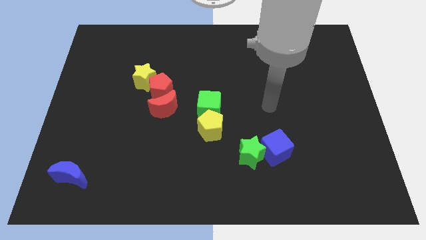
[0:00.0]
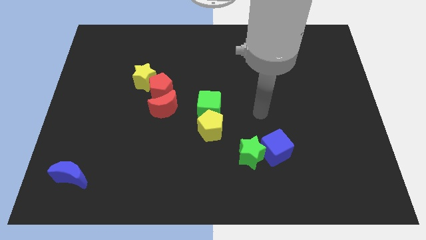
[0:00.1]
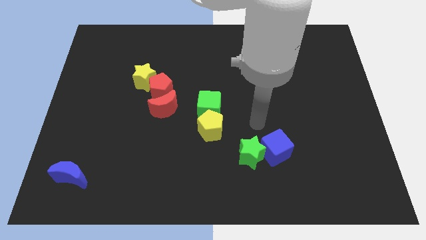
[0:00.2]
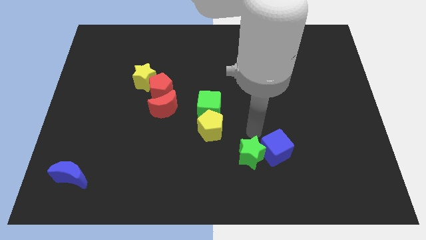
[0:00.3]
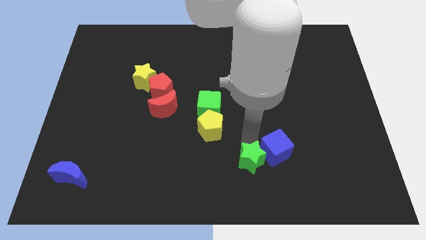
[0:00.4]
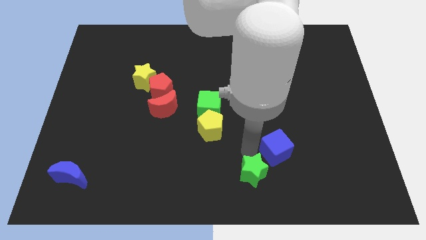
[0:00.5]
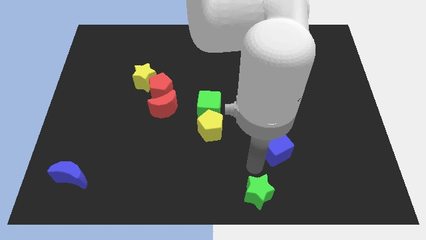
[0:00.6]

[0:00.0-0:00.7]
pull the blue cube apart from the green star

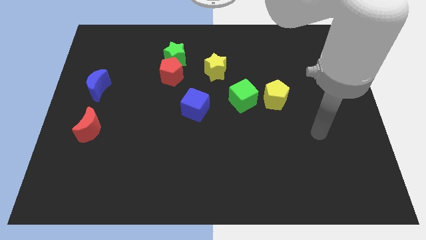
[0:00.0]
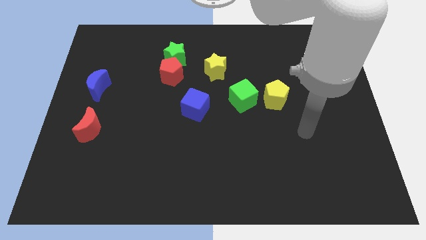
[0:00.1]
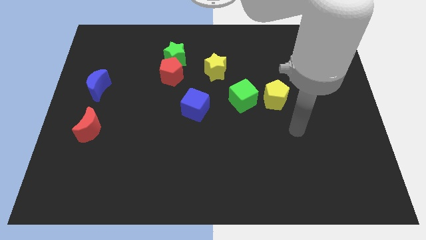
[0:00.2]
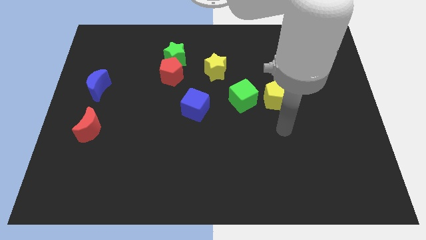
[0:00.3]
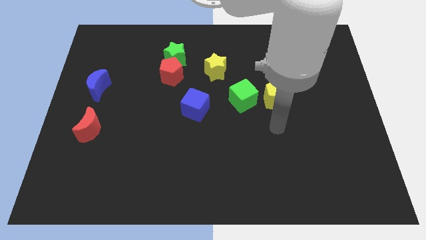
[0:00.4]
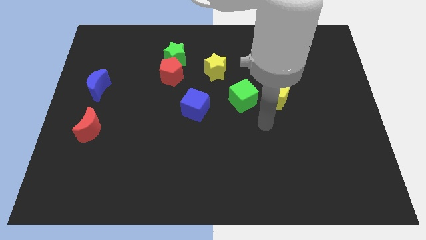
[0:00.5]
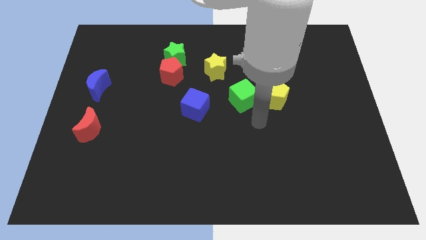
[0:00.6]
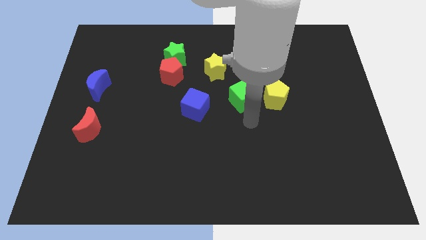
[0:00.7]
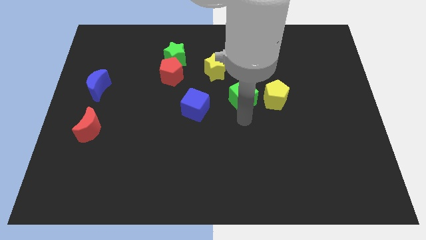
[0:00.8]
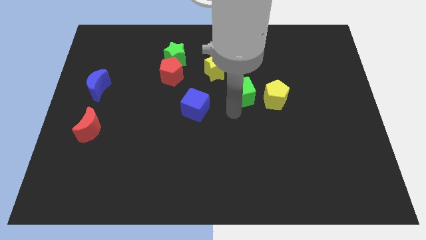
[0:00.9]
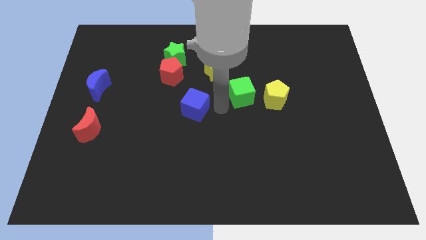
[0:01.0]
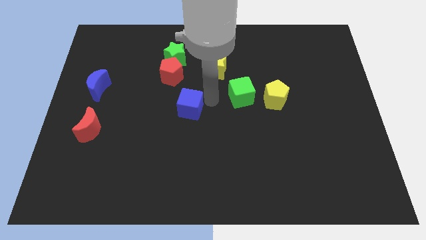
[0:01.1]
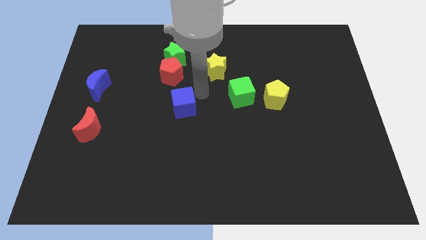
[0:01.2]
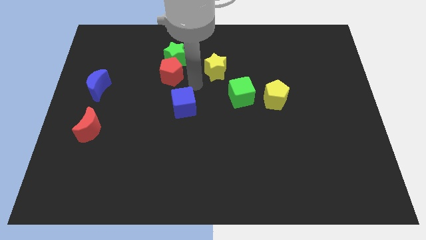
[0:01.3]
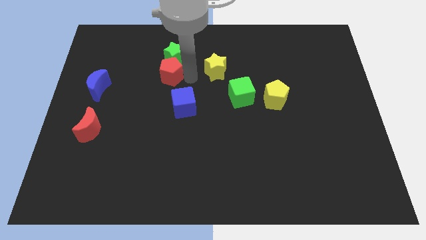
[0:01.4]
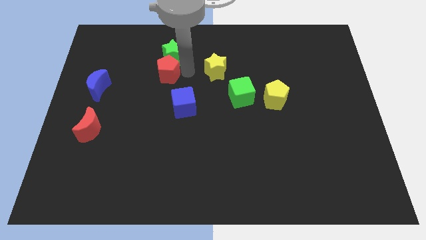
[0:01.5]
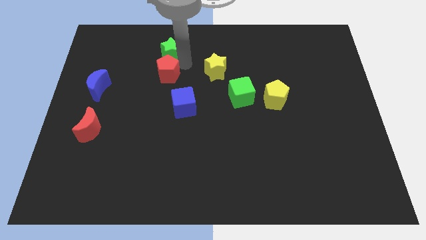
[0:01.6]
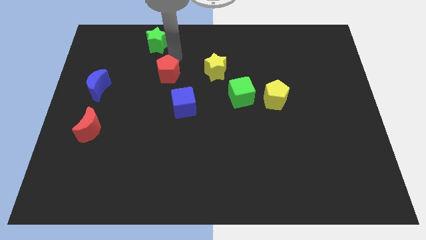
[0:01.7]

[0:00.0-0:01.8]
move the red pentagon away from the green star

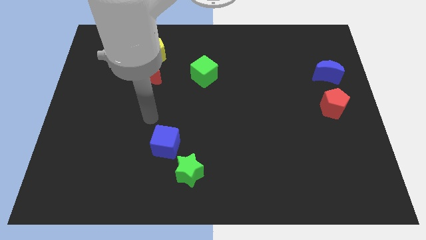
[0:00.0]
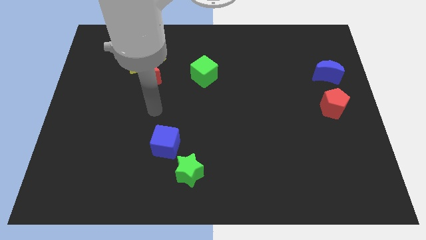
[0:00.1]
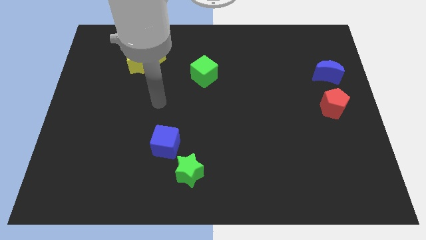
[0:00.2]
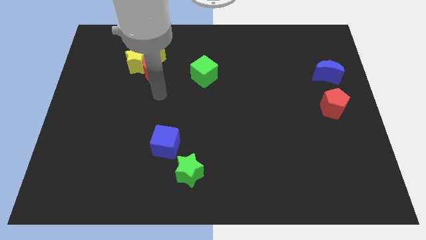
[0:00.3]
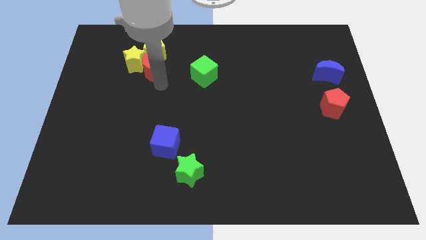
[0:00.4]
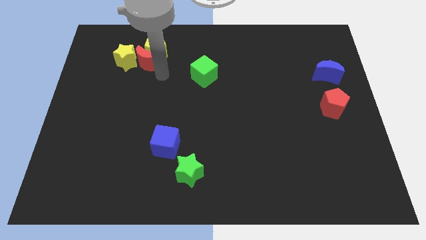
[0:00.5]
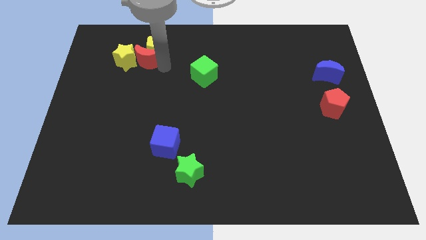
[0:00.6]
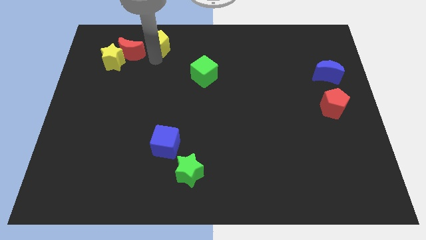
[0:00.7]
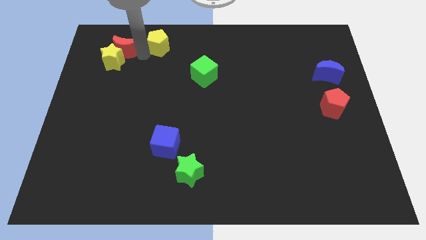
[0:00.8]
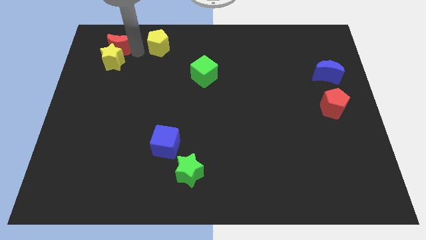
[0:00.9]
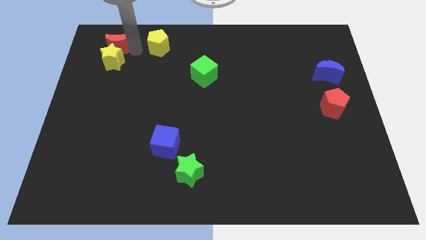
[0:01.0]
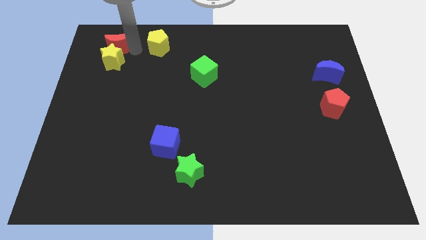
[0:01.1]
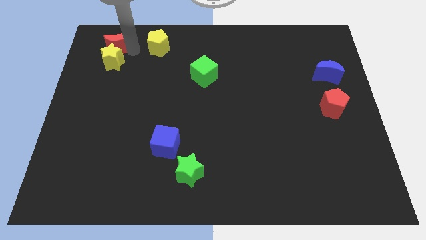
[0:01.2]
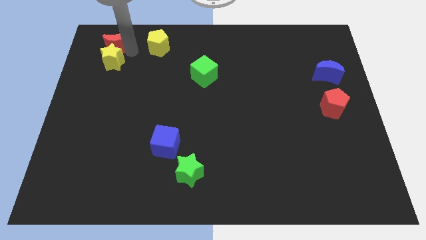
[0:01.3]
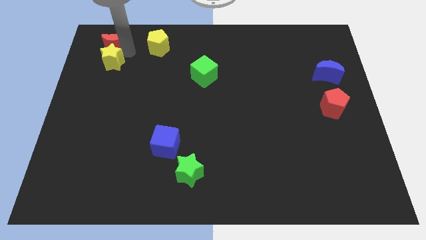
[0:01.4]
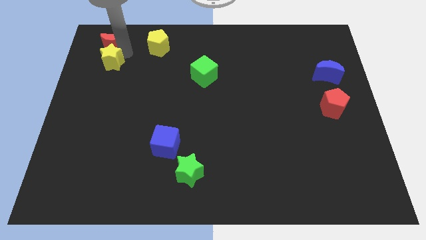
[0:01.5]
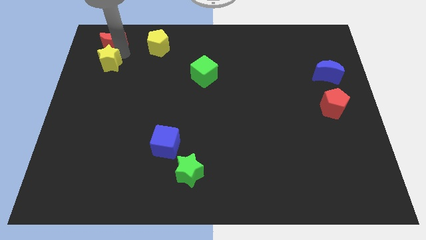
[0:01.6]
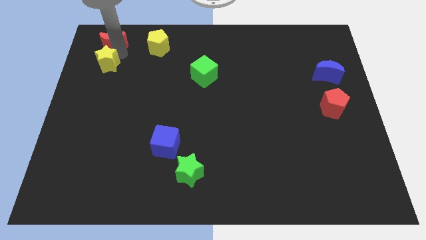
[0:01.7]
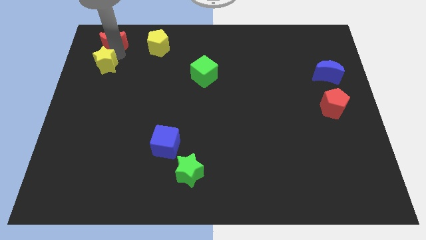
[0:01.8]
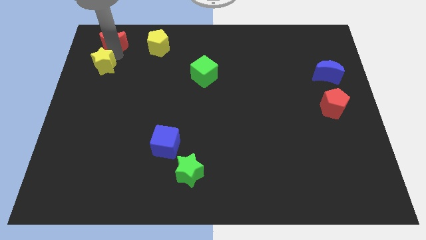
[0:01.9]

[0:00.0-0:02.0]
separate the yellow star from the red moon and yellow pentagon

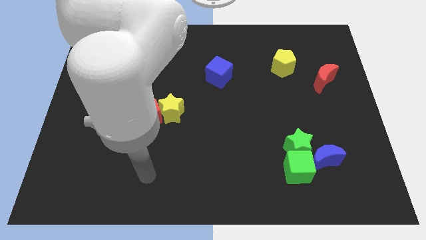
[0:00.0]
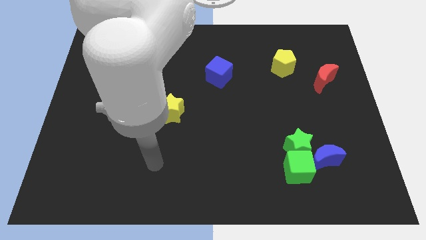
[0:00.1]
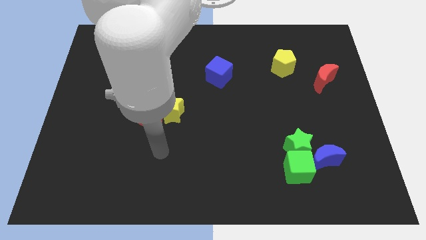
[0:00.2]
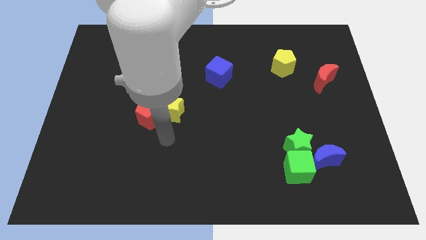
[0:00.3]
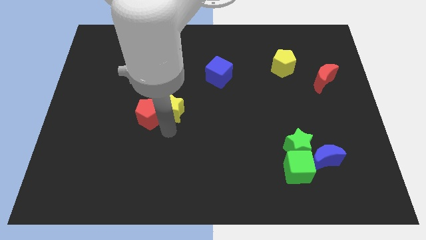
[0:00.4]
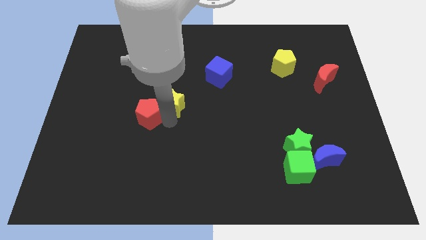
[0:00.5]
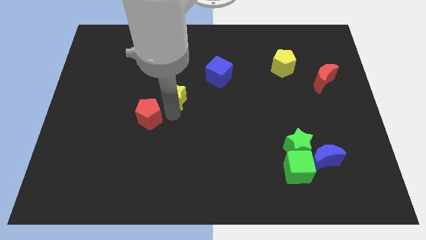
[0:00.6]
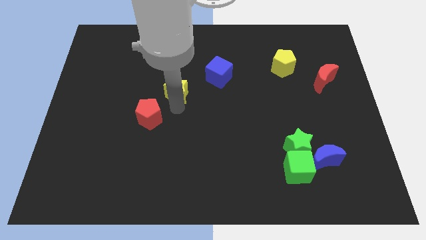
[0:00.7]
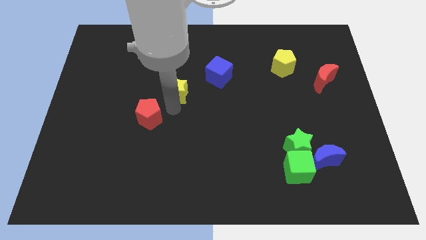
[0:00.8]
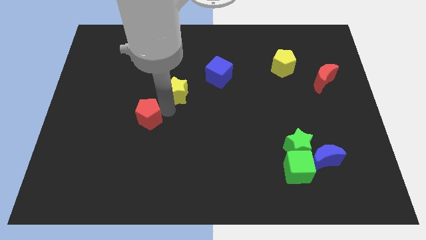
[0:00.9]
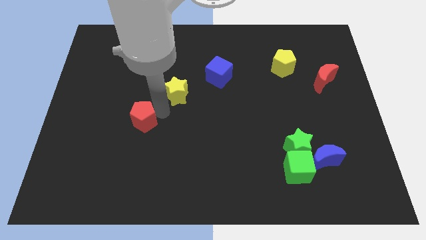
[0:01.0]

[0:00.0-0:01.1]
move the red pentagon away from the yellow star

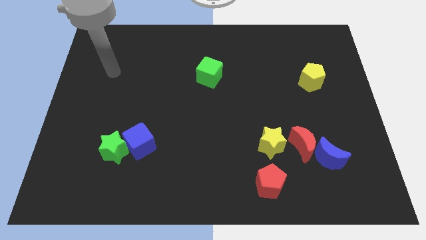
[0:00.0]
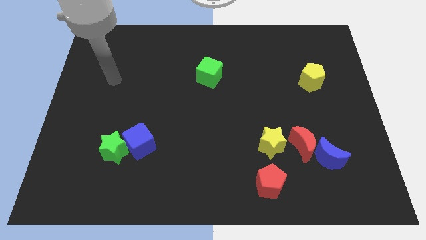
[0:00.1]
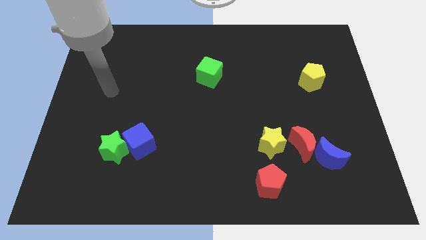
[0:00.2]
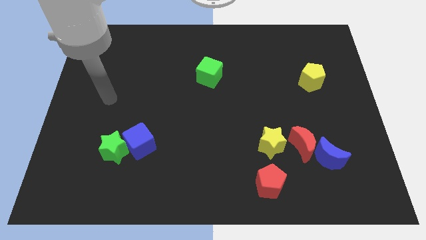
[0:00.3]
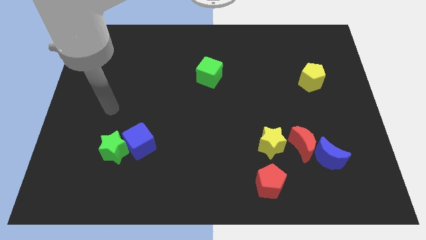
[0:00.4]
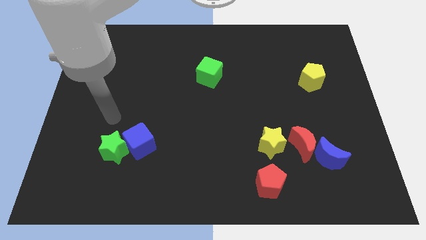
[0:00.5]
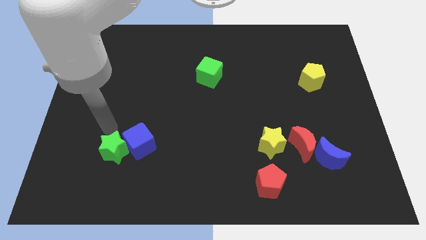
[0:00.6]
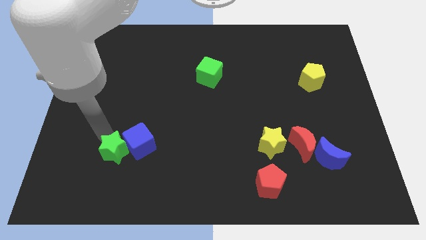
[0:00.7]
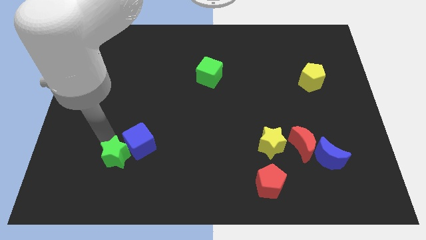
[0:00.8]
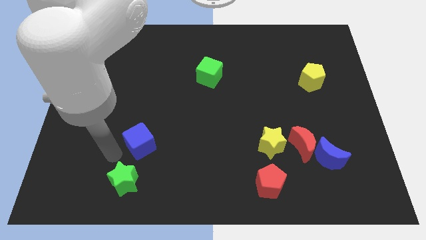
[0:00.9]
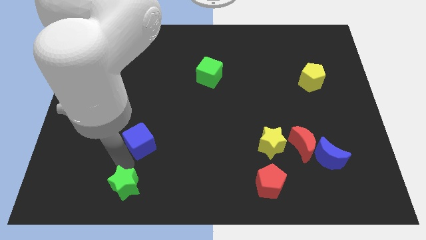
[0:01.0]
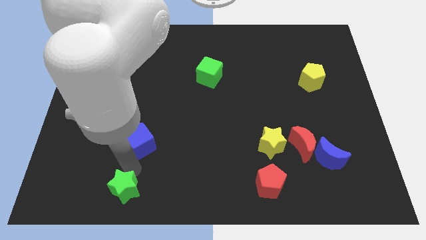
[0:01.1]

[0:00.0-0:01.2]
move the blue cube away from the green star

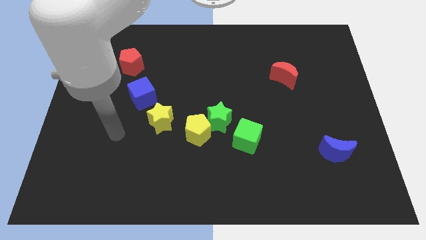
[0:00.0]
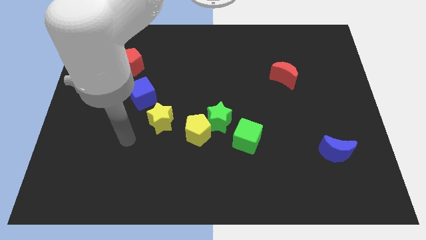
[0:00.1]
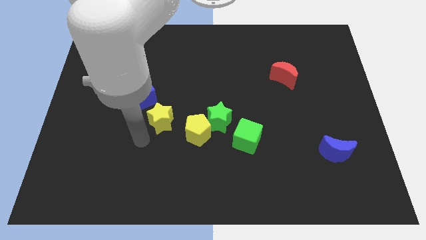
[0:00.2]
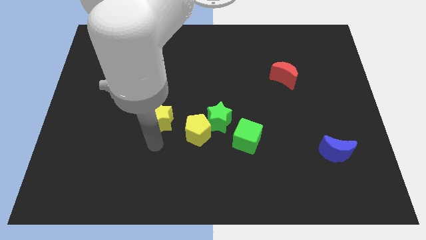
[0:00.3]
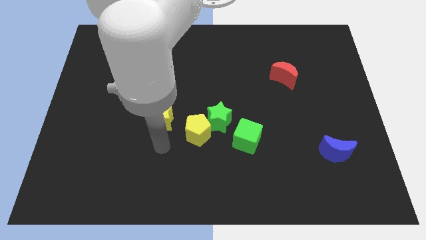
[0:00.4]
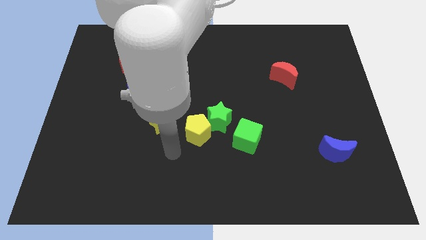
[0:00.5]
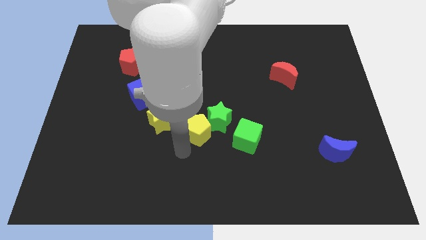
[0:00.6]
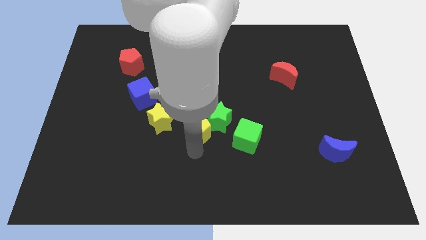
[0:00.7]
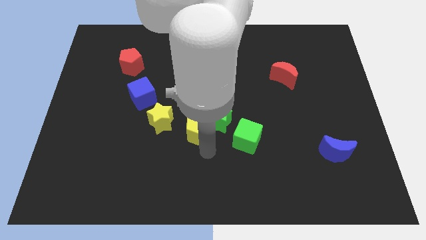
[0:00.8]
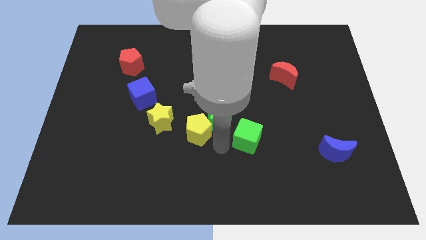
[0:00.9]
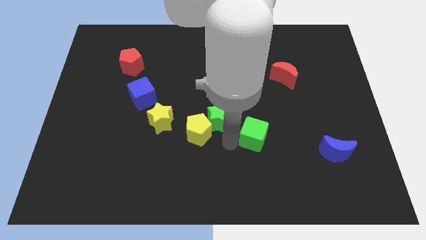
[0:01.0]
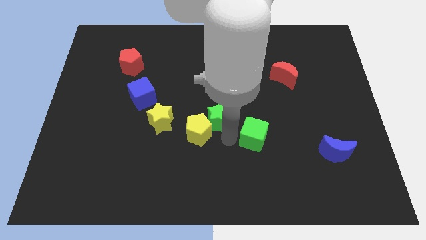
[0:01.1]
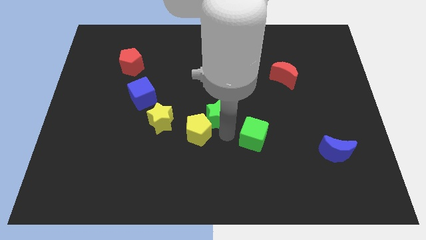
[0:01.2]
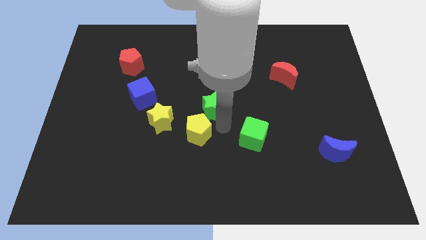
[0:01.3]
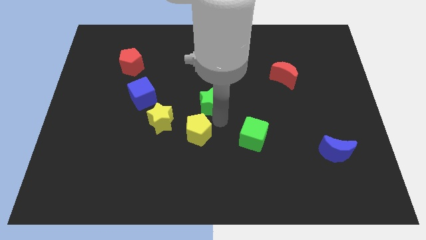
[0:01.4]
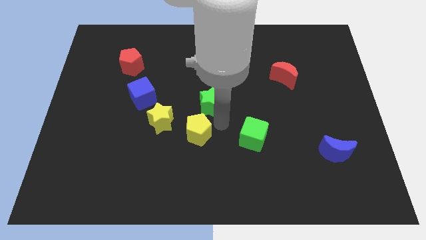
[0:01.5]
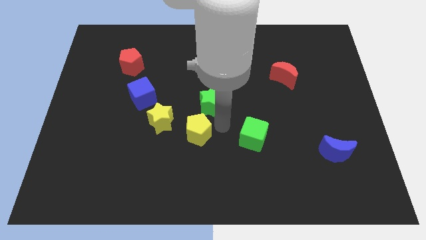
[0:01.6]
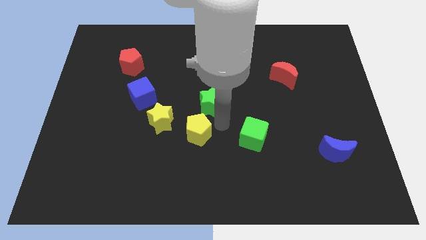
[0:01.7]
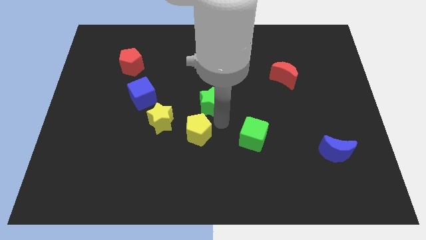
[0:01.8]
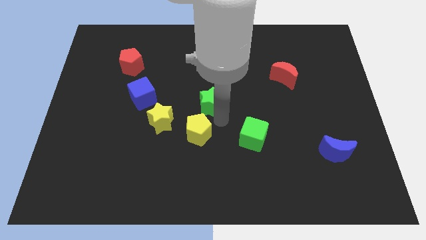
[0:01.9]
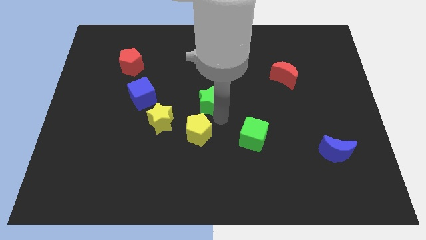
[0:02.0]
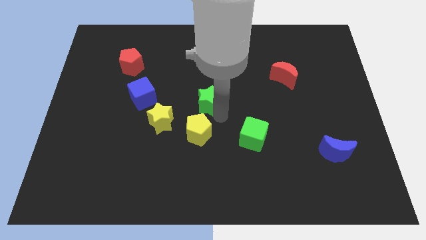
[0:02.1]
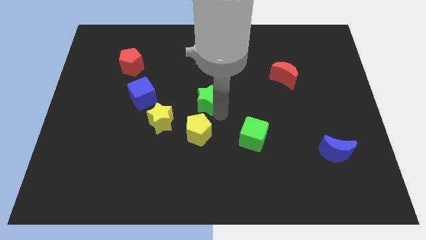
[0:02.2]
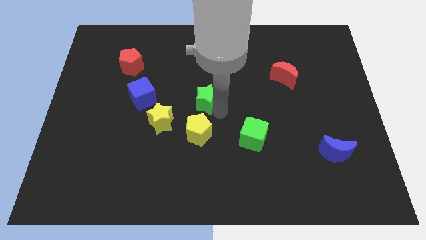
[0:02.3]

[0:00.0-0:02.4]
separate the green star from the yellow pentagon and green cube

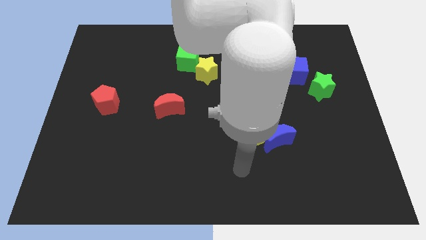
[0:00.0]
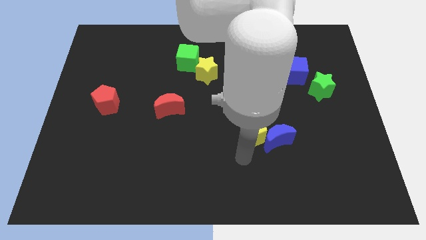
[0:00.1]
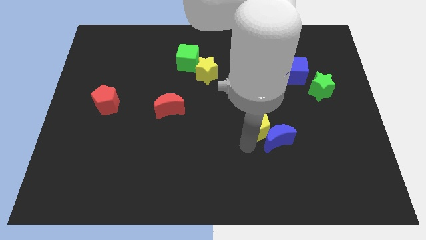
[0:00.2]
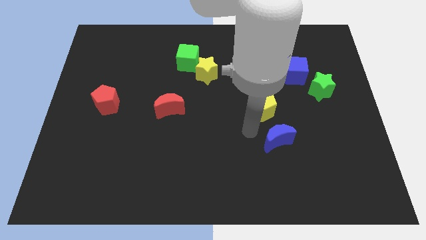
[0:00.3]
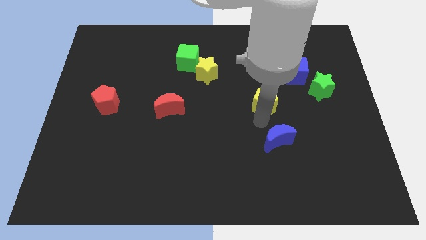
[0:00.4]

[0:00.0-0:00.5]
move the blue moon away from the yellow pentagon
